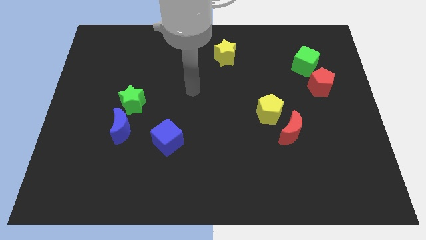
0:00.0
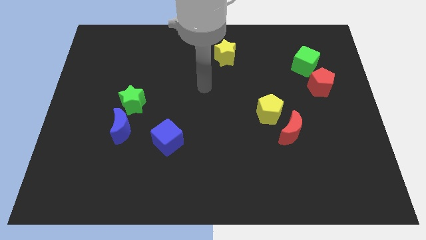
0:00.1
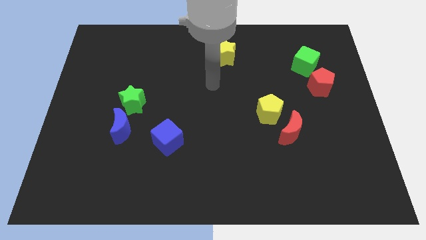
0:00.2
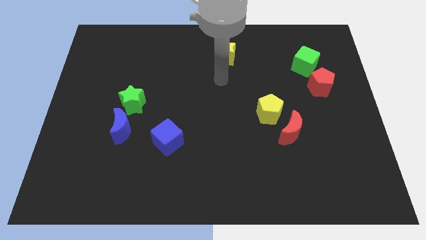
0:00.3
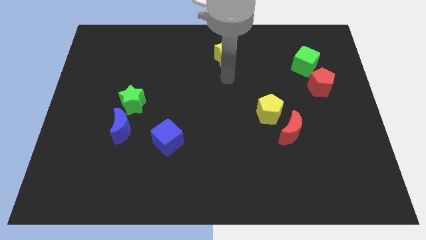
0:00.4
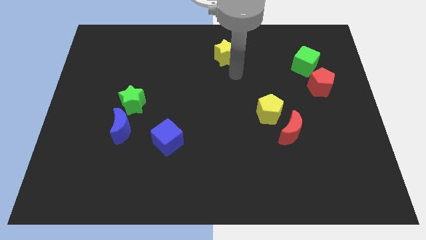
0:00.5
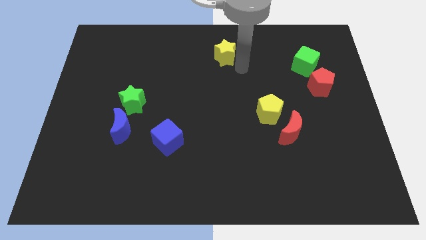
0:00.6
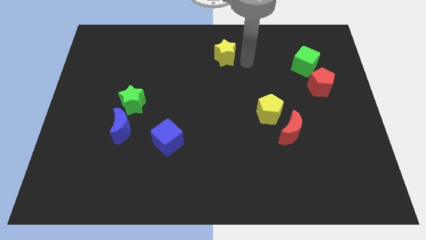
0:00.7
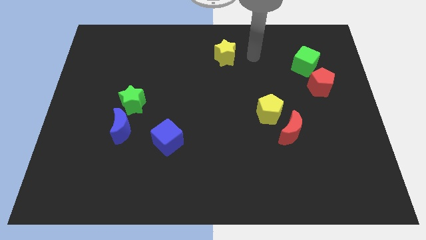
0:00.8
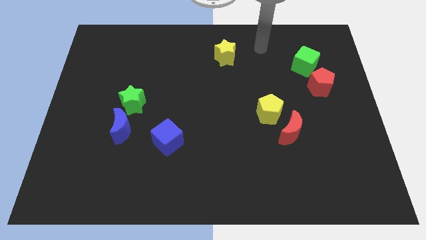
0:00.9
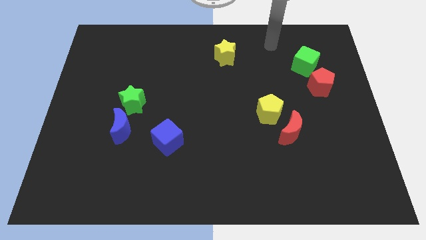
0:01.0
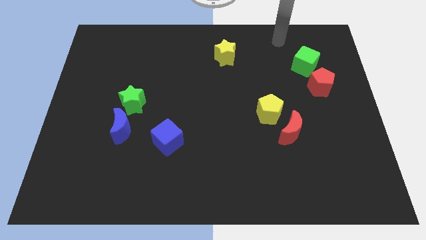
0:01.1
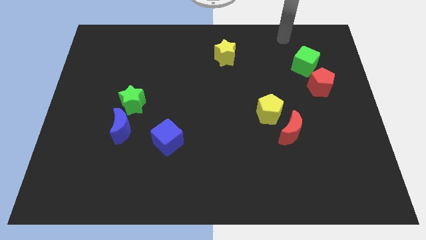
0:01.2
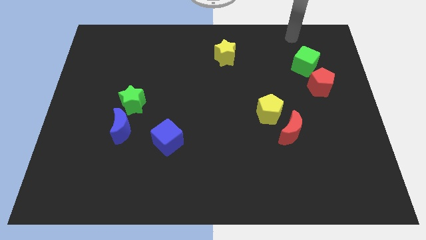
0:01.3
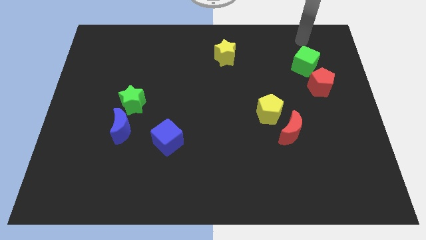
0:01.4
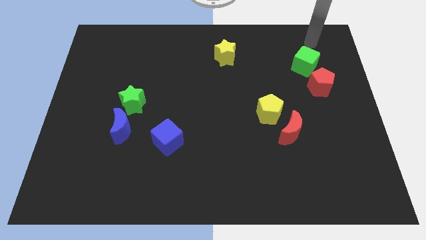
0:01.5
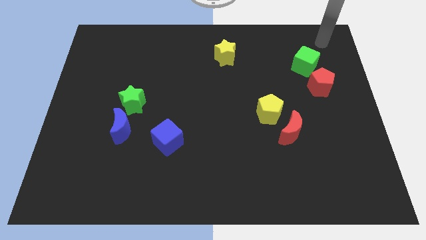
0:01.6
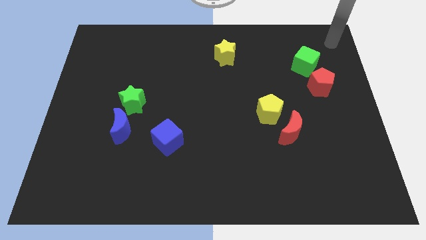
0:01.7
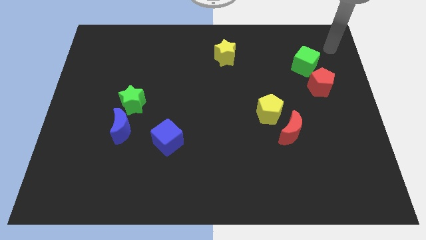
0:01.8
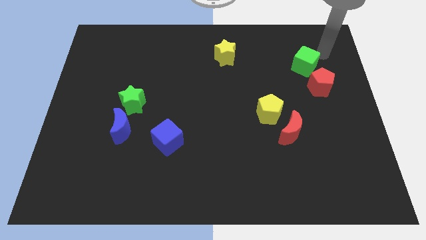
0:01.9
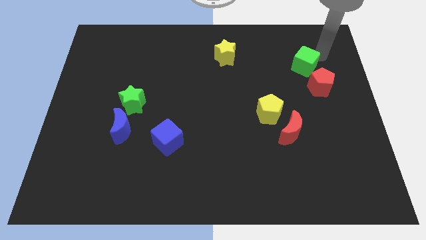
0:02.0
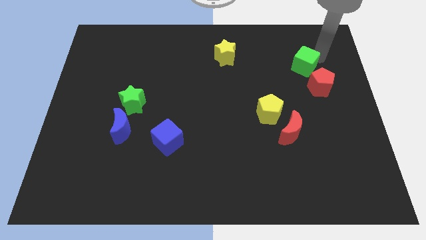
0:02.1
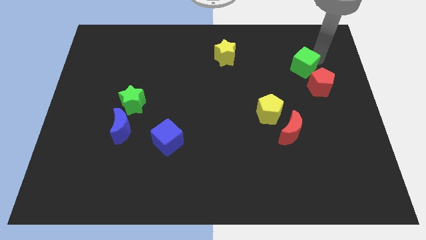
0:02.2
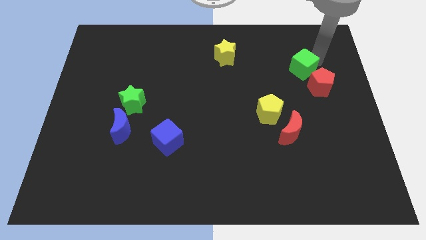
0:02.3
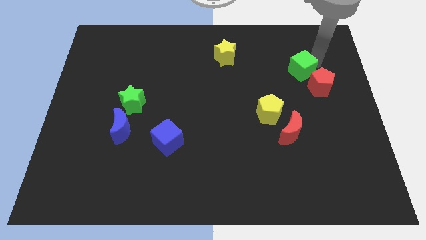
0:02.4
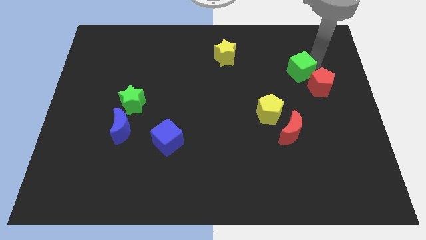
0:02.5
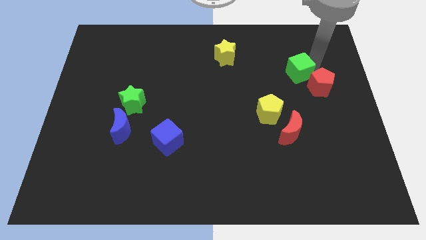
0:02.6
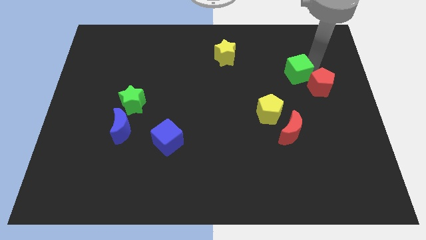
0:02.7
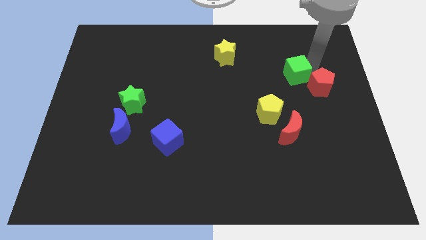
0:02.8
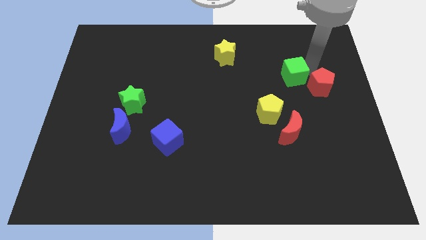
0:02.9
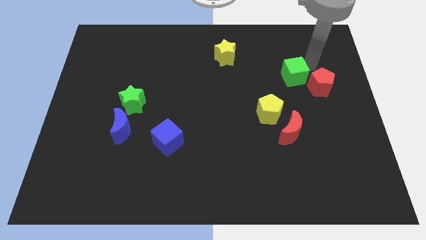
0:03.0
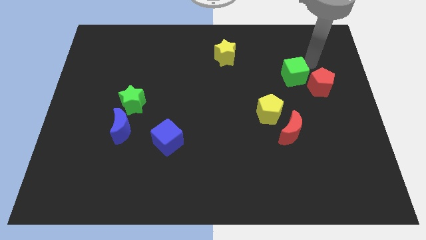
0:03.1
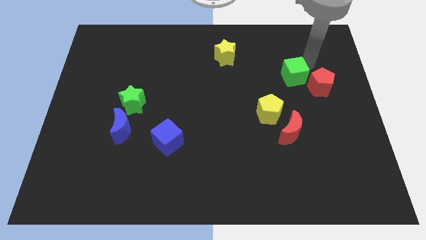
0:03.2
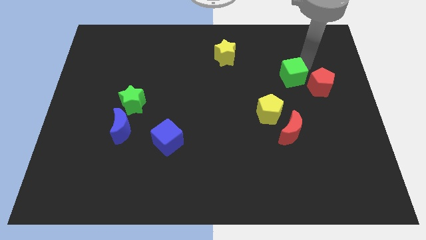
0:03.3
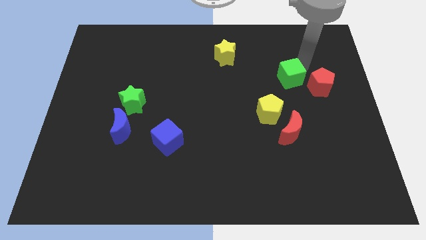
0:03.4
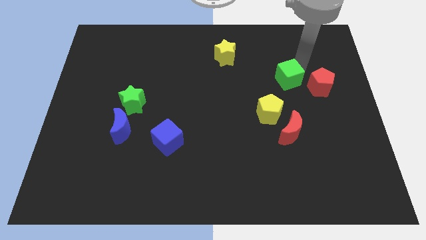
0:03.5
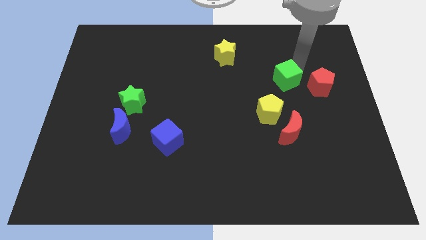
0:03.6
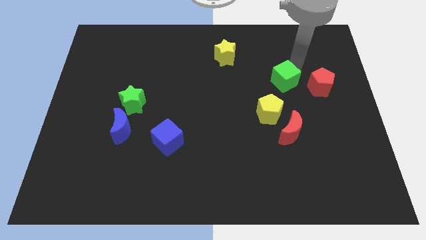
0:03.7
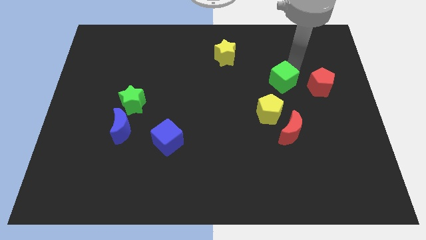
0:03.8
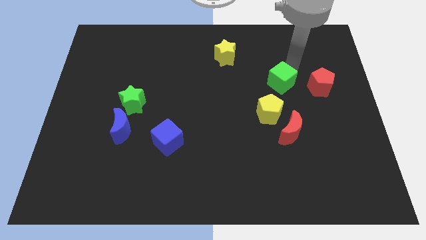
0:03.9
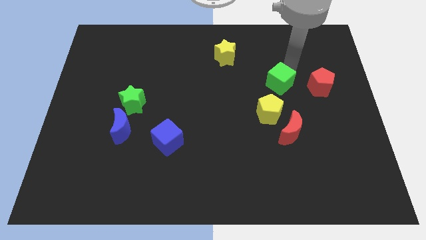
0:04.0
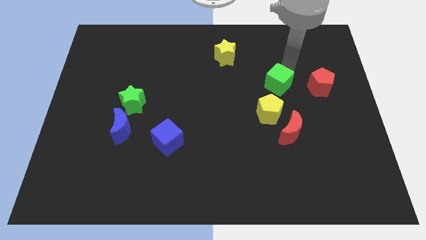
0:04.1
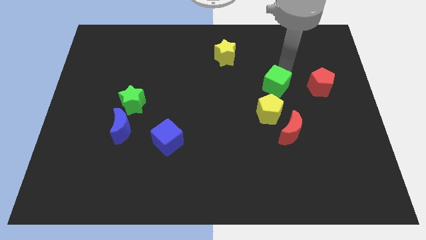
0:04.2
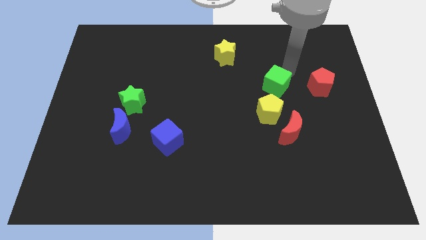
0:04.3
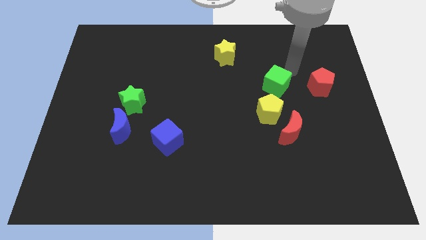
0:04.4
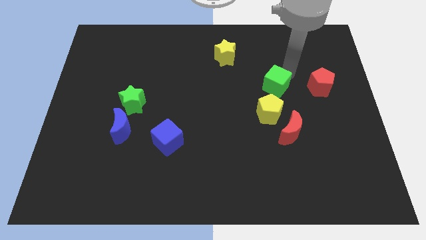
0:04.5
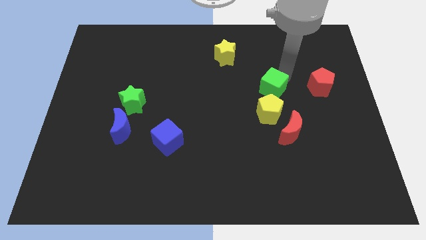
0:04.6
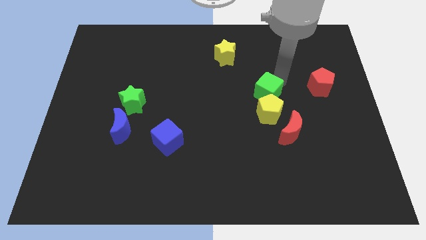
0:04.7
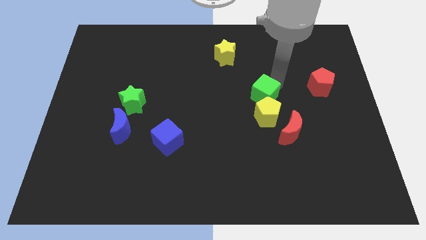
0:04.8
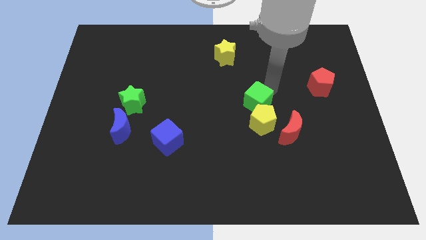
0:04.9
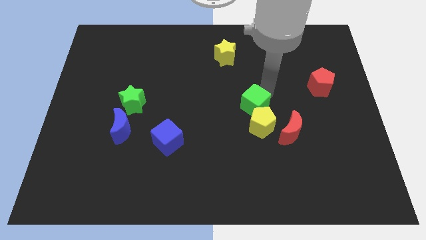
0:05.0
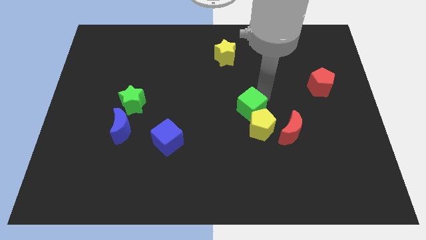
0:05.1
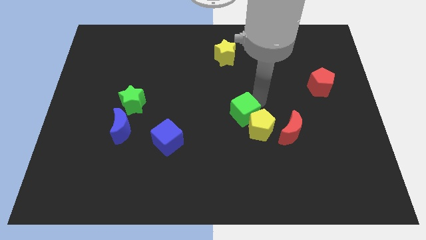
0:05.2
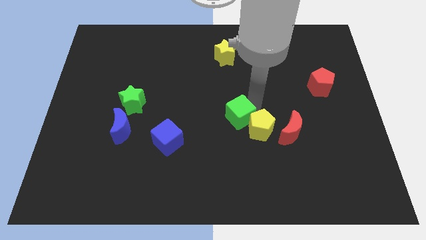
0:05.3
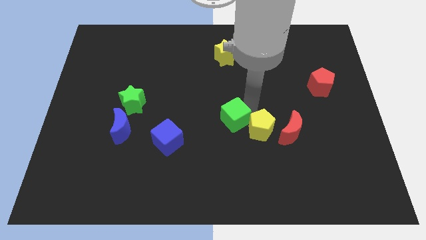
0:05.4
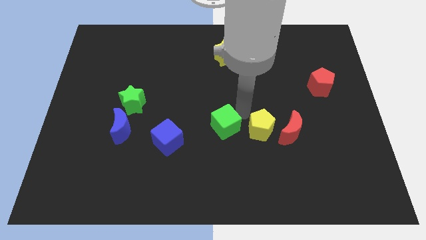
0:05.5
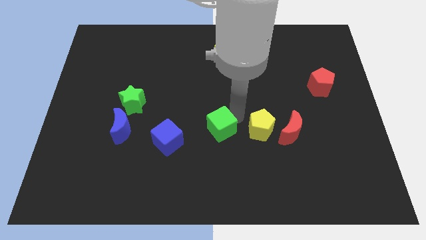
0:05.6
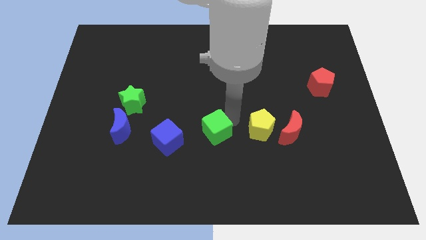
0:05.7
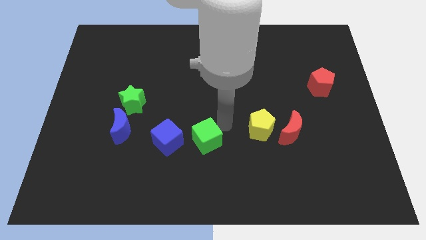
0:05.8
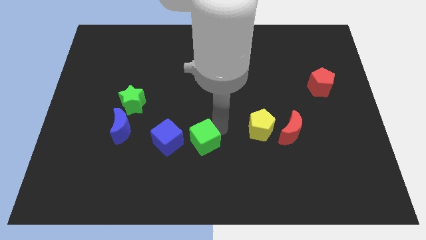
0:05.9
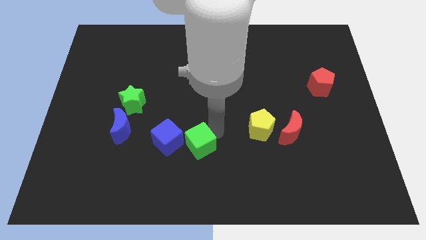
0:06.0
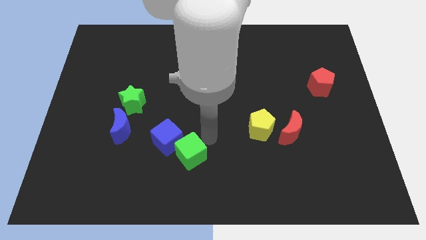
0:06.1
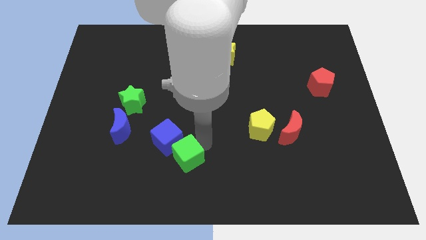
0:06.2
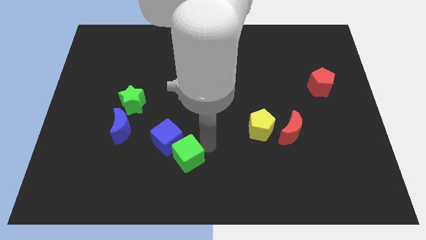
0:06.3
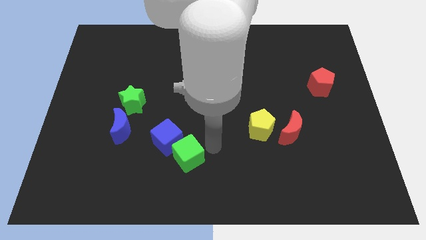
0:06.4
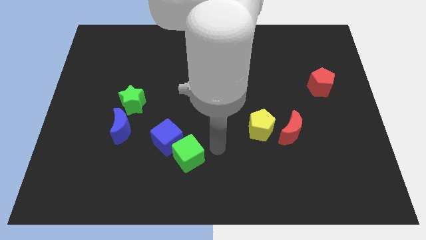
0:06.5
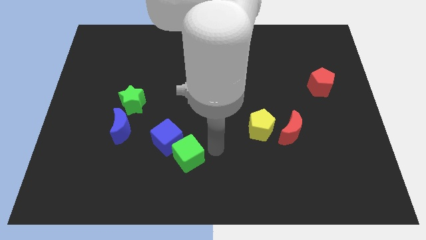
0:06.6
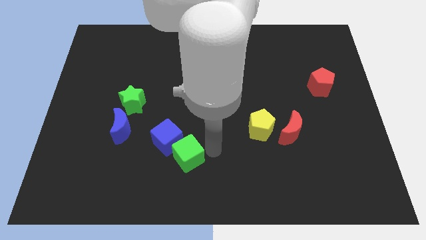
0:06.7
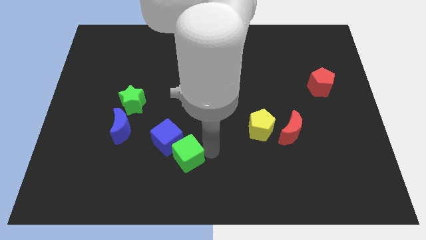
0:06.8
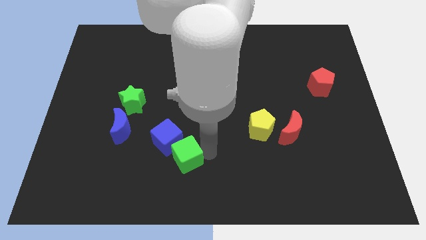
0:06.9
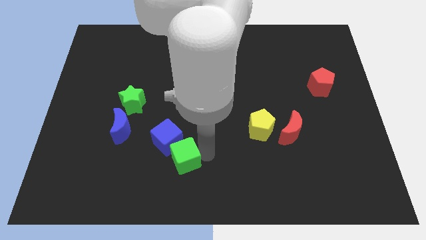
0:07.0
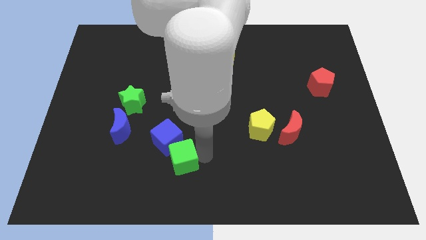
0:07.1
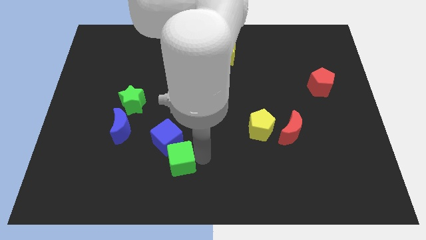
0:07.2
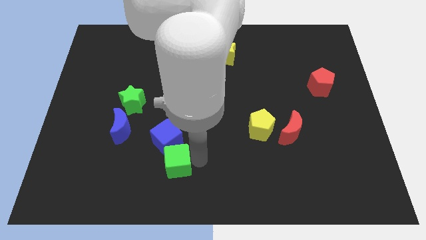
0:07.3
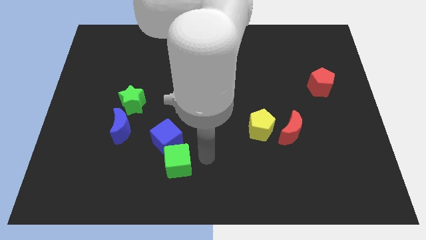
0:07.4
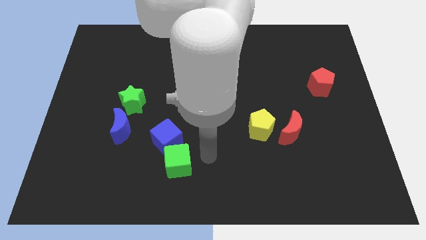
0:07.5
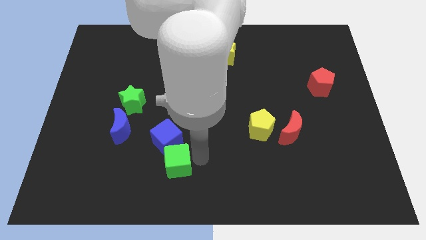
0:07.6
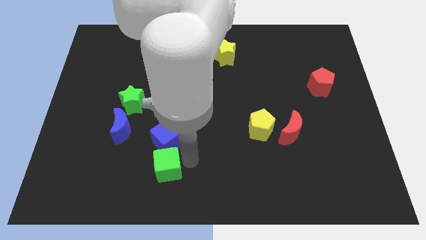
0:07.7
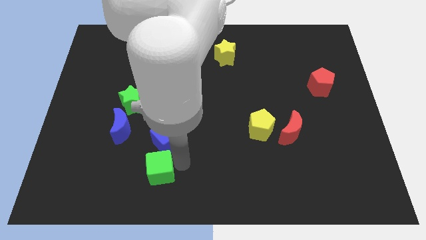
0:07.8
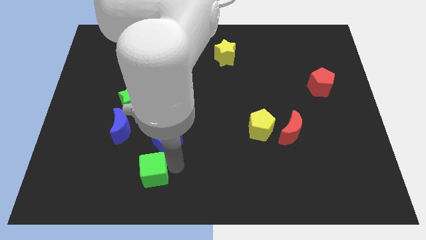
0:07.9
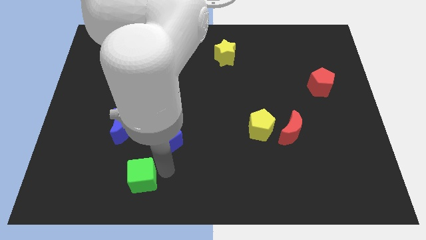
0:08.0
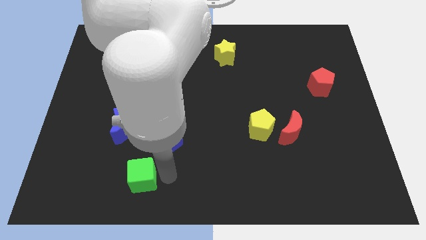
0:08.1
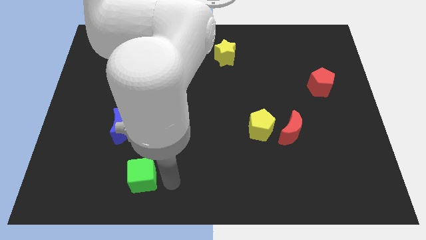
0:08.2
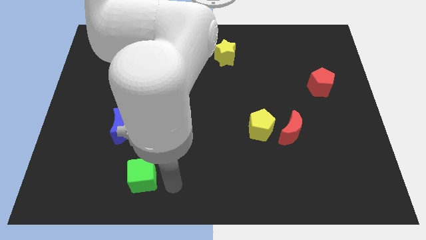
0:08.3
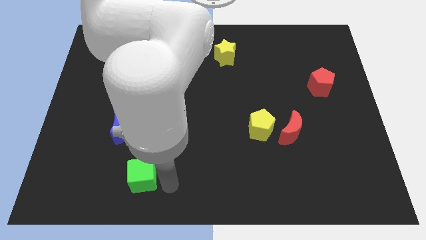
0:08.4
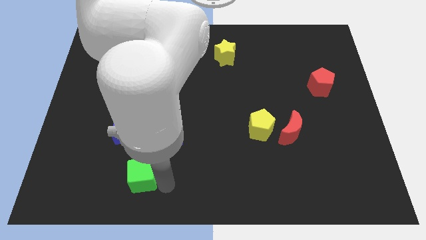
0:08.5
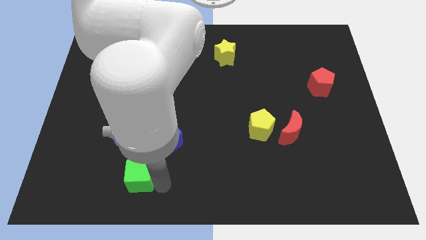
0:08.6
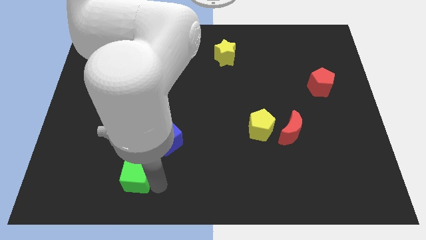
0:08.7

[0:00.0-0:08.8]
push the green cube below the blue moon
